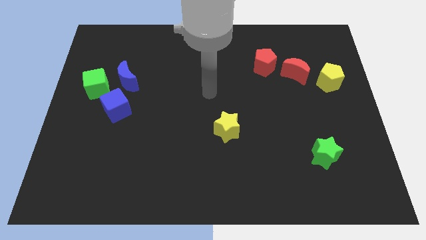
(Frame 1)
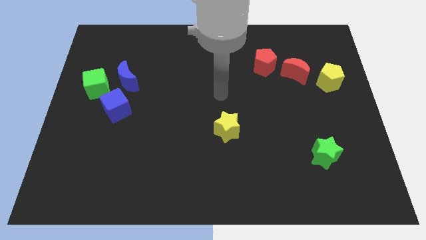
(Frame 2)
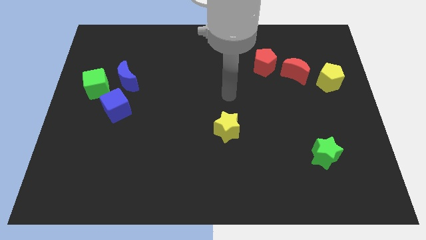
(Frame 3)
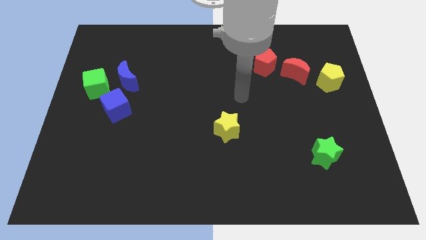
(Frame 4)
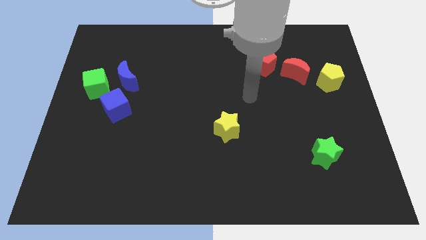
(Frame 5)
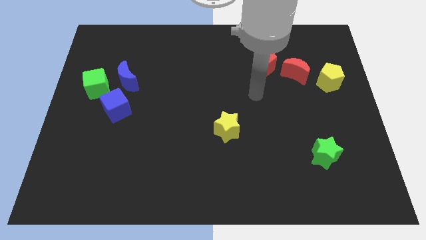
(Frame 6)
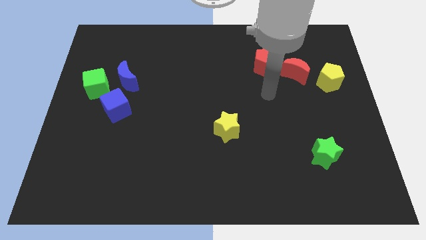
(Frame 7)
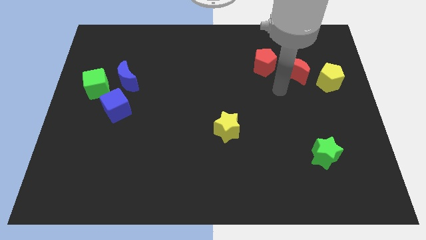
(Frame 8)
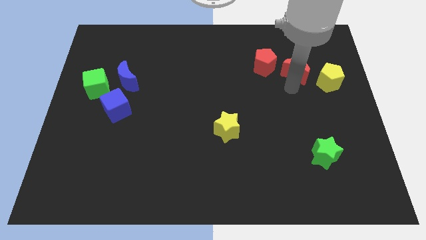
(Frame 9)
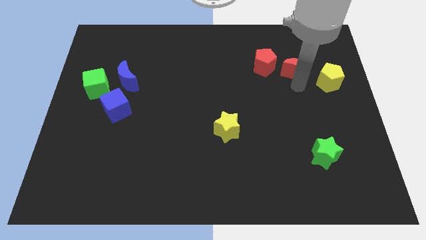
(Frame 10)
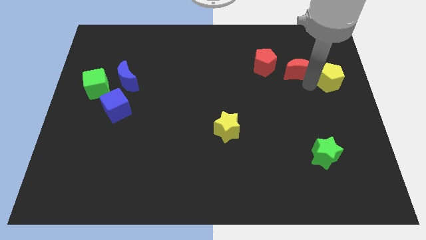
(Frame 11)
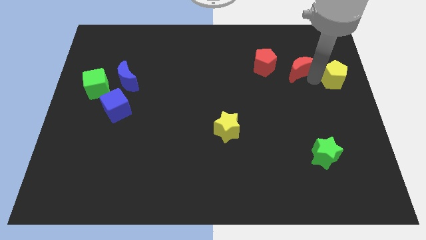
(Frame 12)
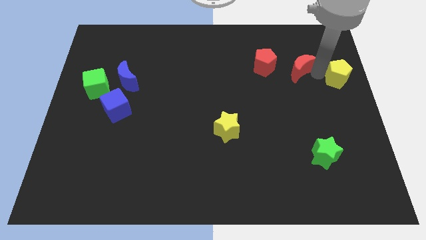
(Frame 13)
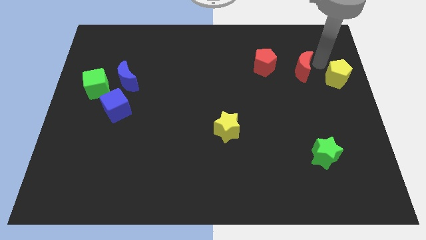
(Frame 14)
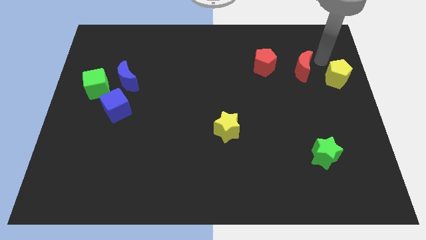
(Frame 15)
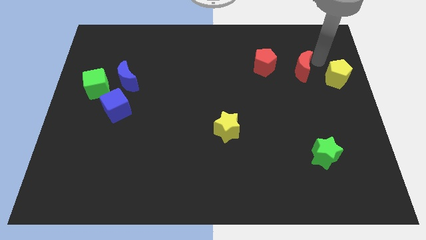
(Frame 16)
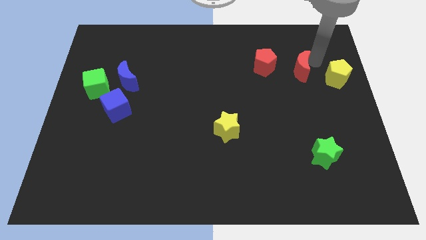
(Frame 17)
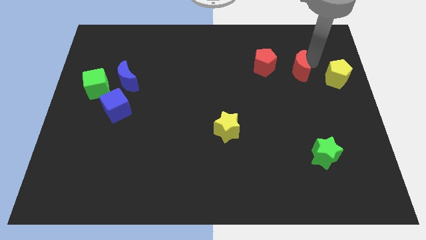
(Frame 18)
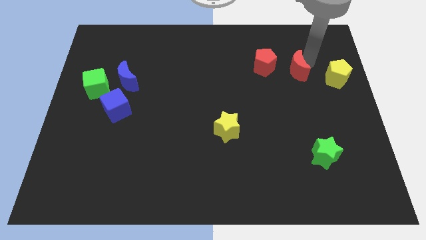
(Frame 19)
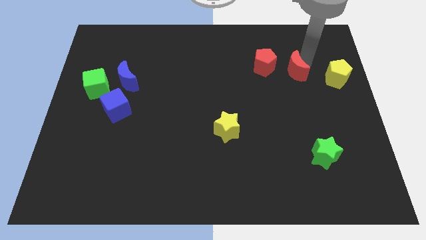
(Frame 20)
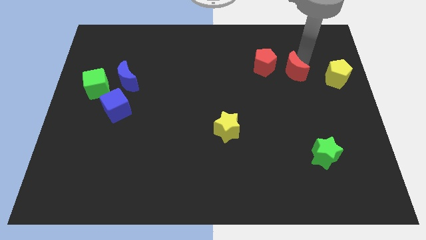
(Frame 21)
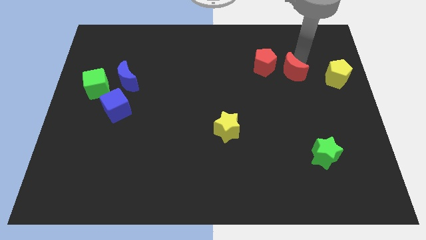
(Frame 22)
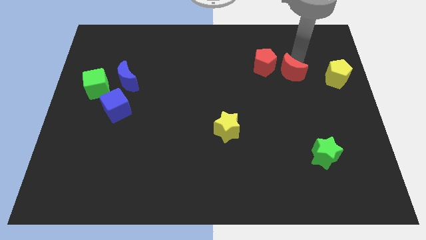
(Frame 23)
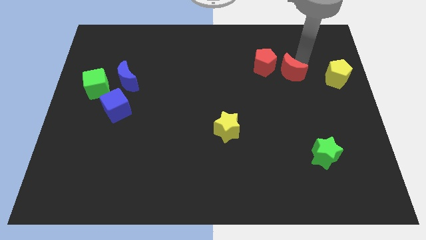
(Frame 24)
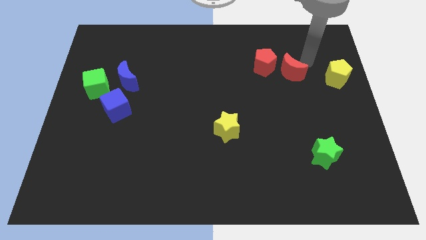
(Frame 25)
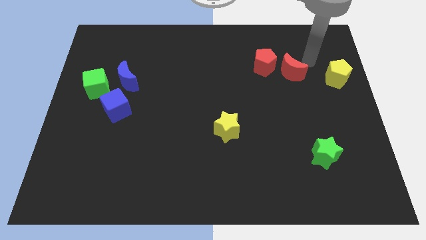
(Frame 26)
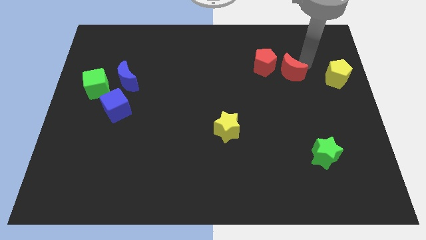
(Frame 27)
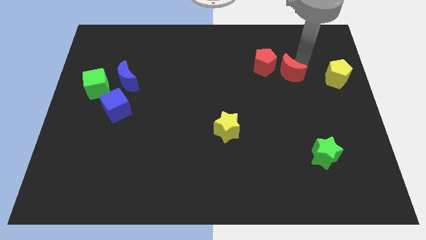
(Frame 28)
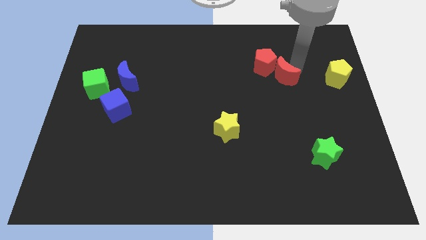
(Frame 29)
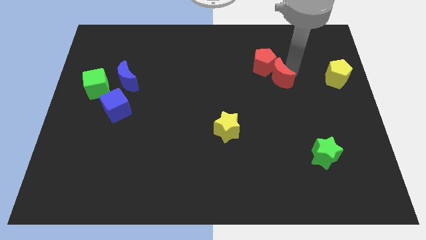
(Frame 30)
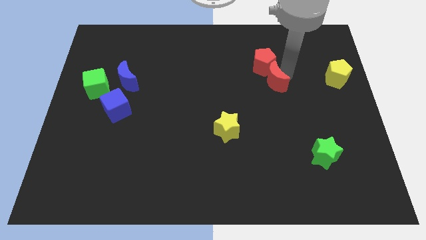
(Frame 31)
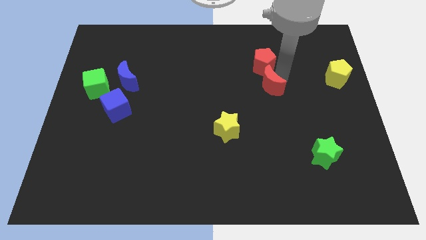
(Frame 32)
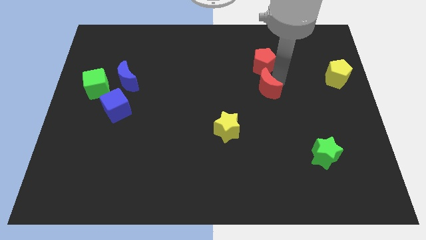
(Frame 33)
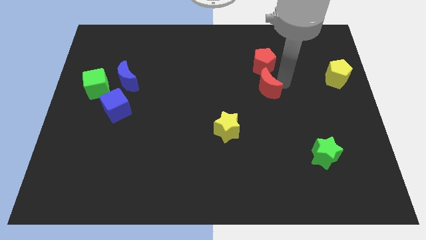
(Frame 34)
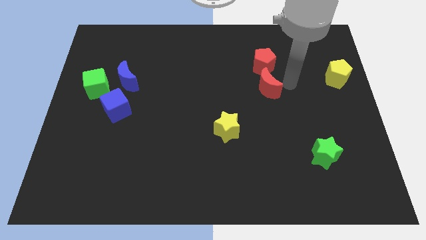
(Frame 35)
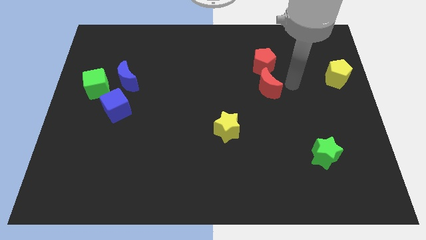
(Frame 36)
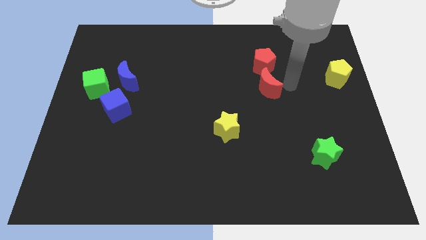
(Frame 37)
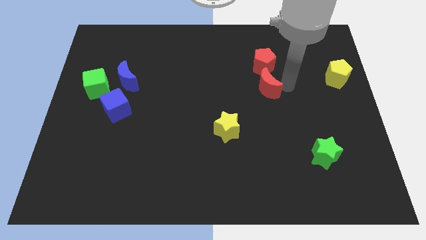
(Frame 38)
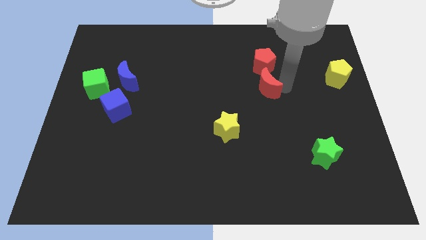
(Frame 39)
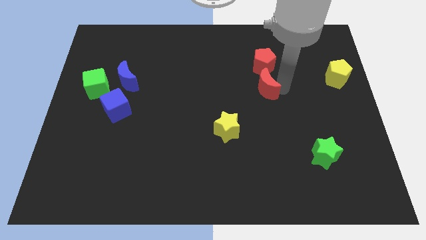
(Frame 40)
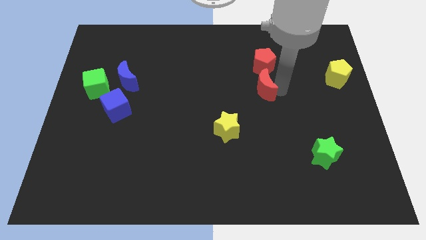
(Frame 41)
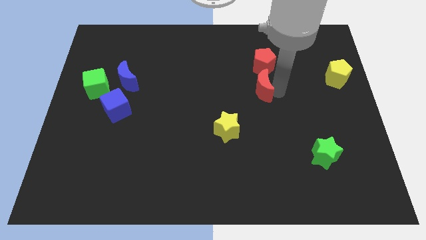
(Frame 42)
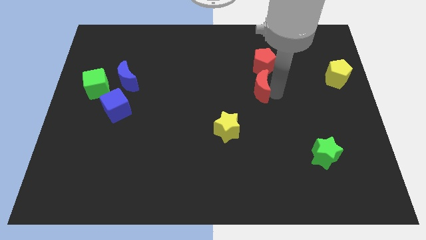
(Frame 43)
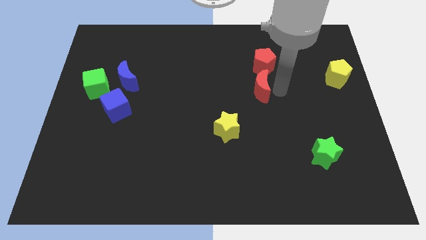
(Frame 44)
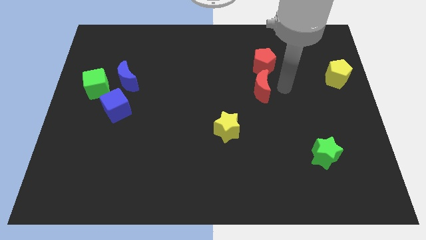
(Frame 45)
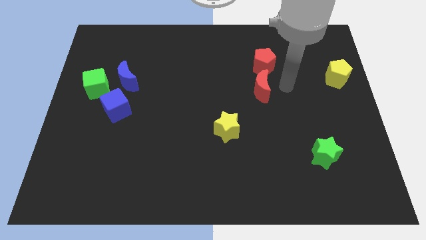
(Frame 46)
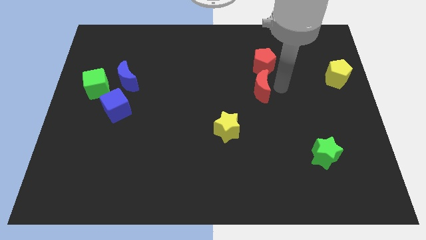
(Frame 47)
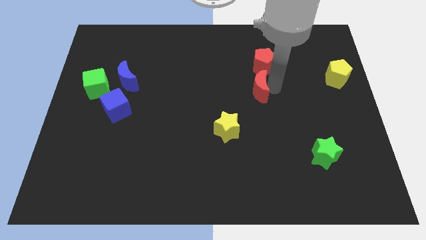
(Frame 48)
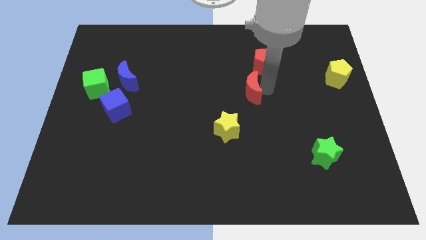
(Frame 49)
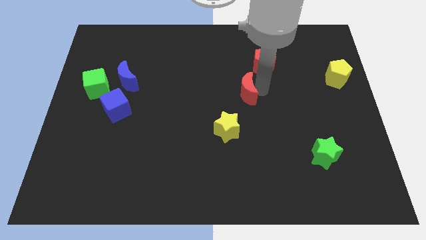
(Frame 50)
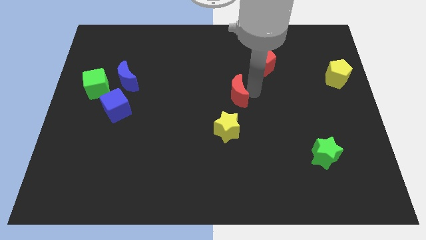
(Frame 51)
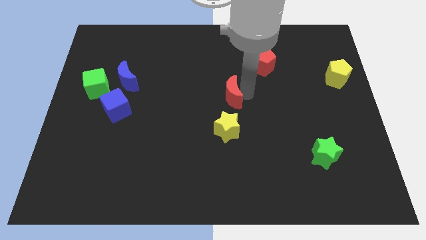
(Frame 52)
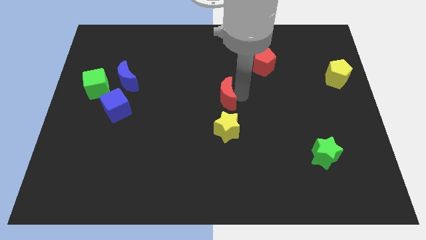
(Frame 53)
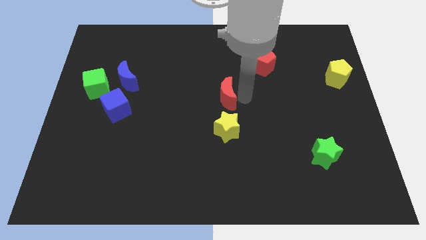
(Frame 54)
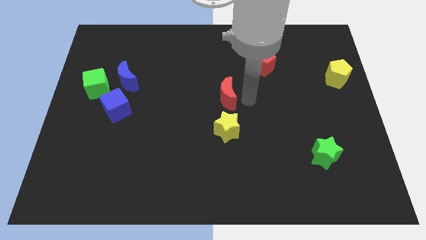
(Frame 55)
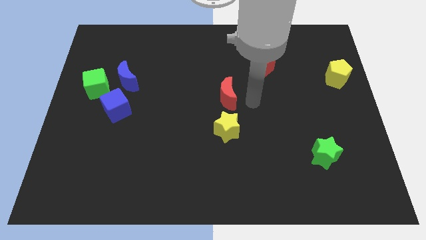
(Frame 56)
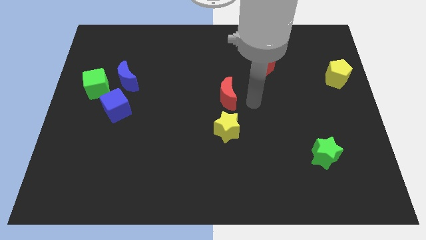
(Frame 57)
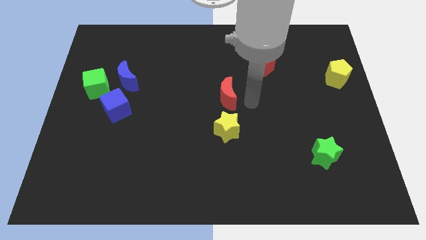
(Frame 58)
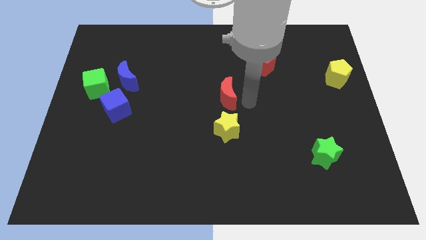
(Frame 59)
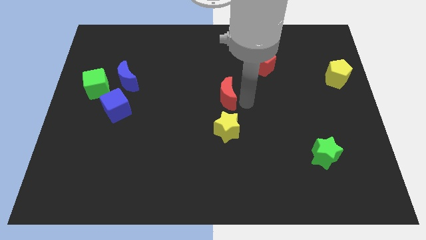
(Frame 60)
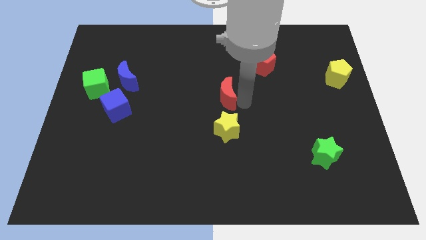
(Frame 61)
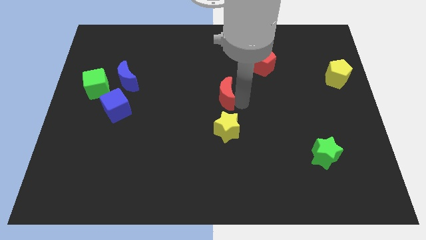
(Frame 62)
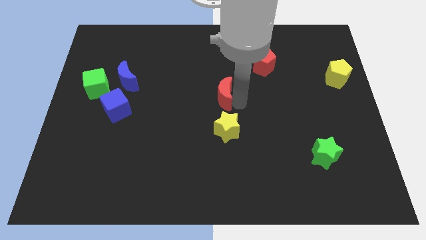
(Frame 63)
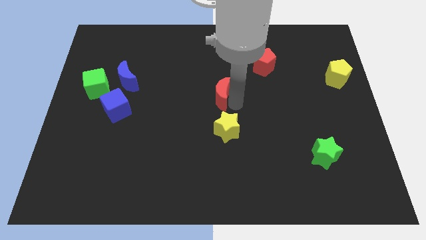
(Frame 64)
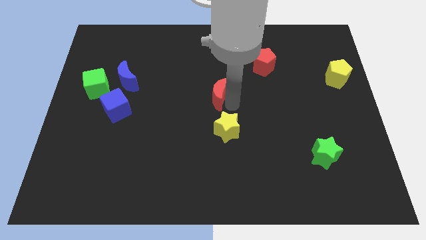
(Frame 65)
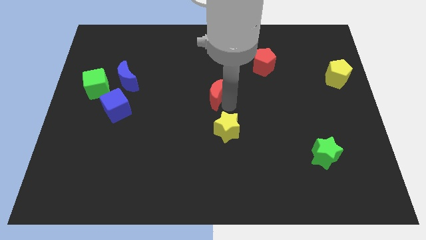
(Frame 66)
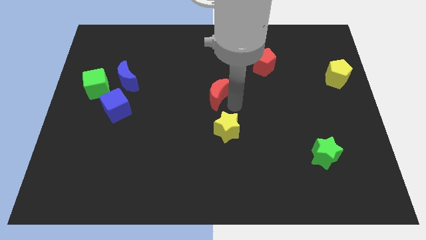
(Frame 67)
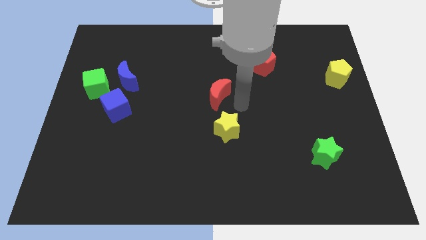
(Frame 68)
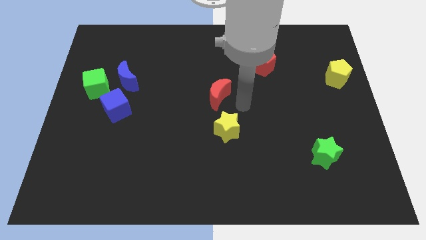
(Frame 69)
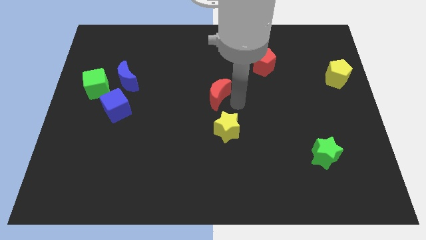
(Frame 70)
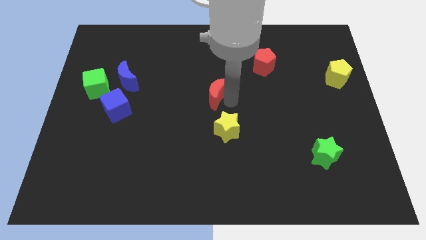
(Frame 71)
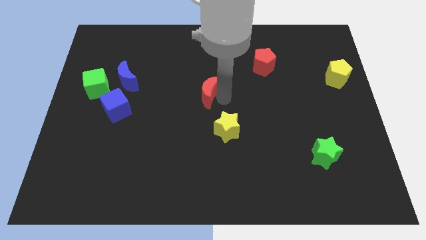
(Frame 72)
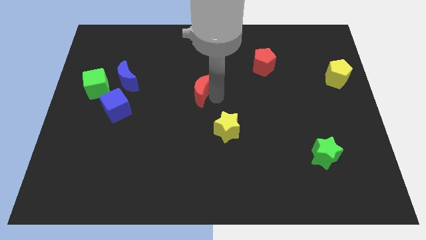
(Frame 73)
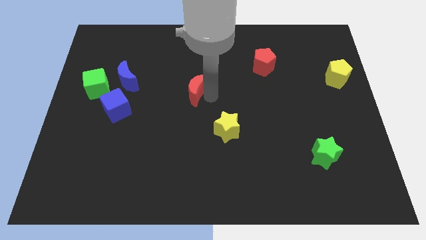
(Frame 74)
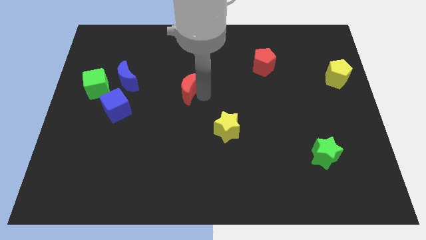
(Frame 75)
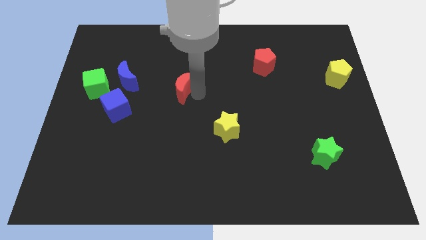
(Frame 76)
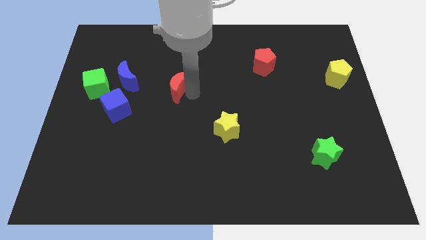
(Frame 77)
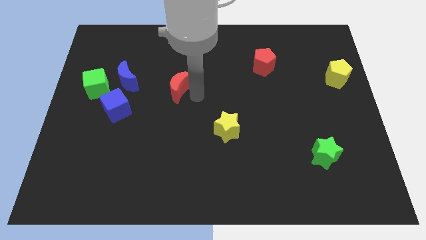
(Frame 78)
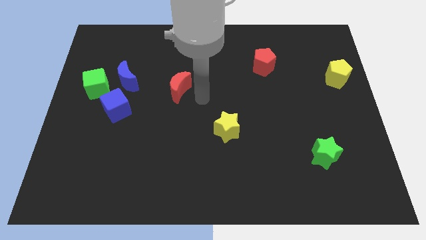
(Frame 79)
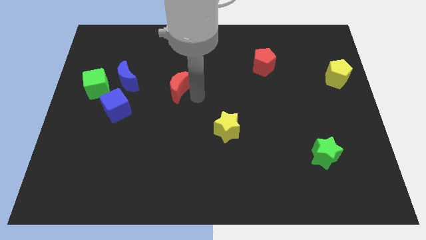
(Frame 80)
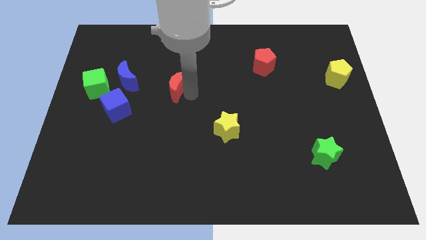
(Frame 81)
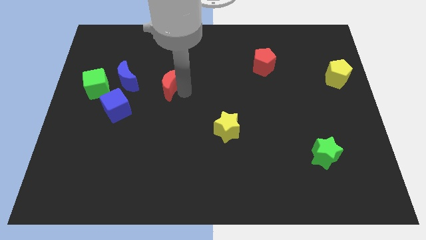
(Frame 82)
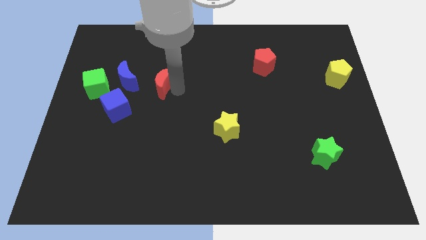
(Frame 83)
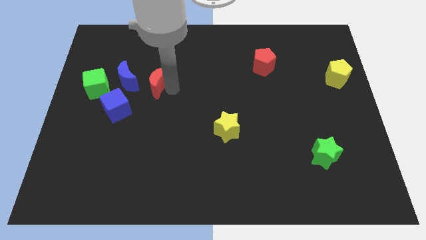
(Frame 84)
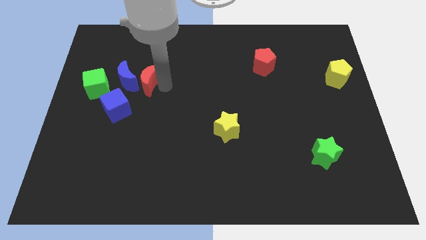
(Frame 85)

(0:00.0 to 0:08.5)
put the red moon close to the blue moon
